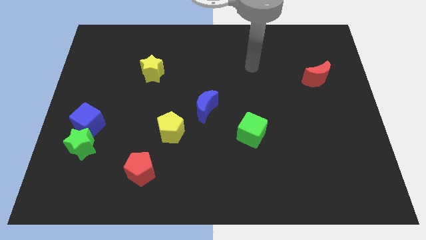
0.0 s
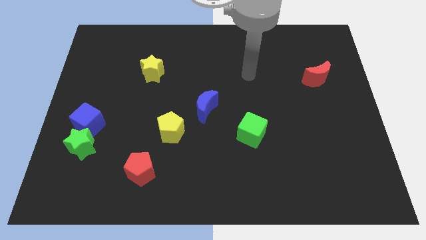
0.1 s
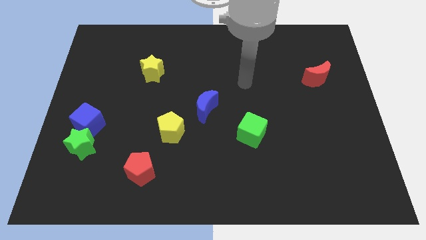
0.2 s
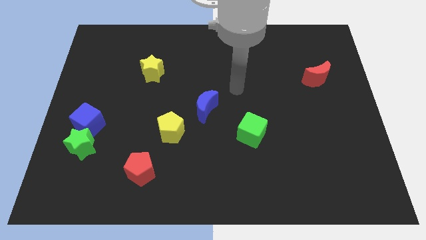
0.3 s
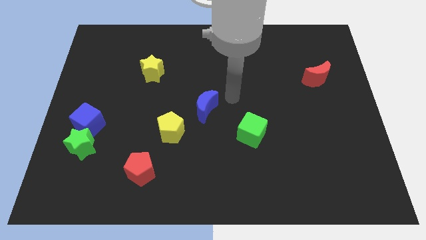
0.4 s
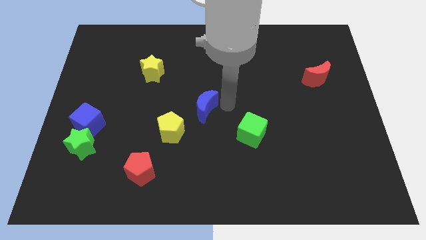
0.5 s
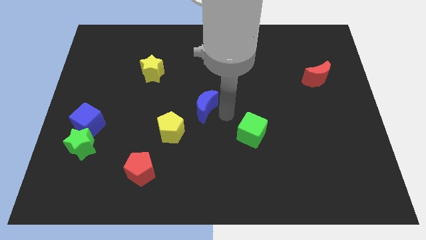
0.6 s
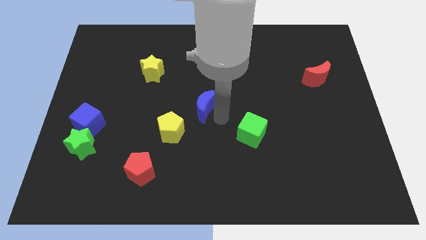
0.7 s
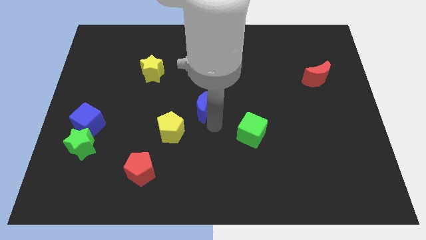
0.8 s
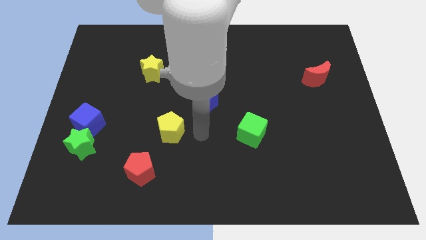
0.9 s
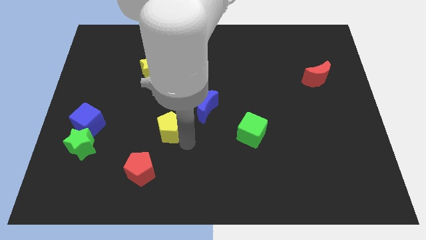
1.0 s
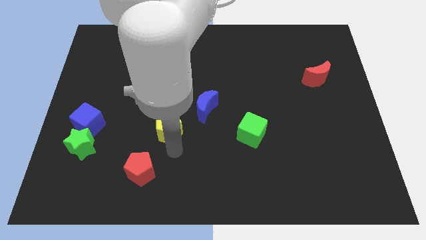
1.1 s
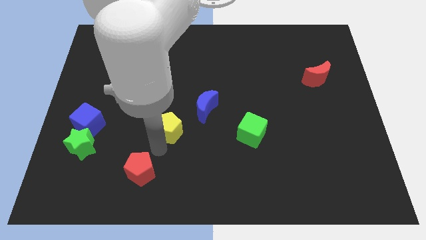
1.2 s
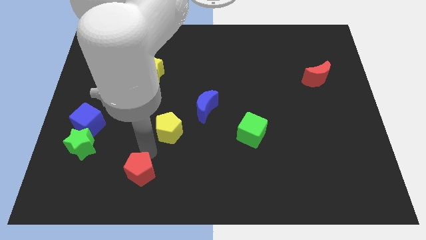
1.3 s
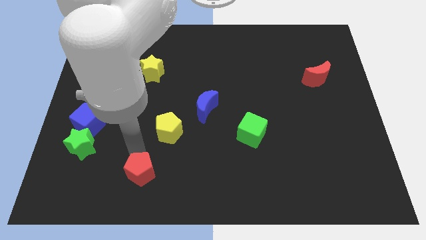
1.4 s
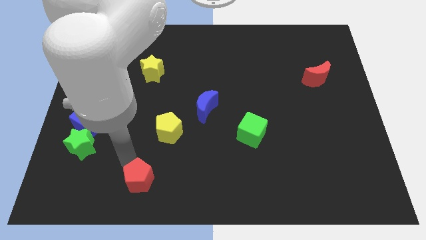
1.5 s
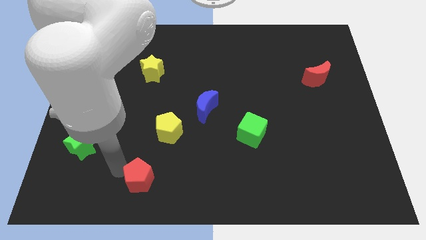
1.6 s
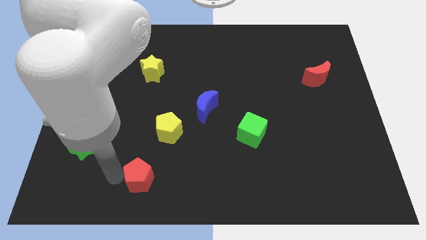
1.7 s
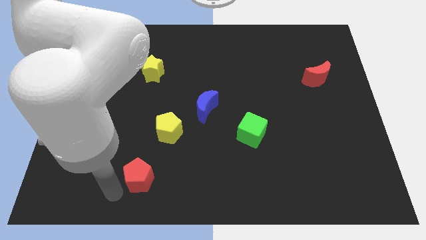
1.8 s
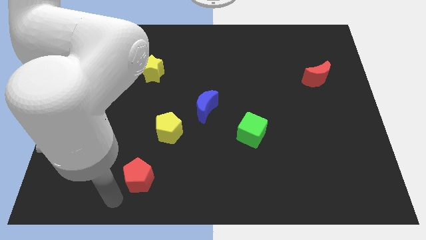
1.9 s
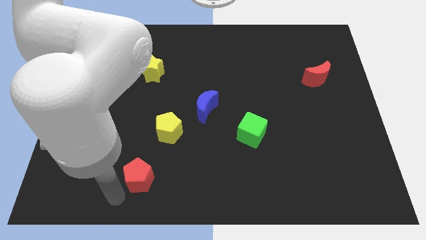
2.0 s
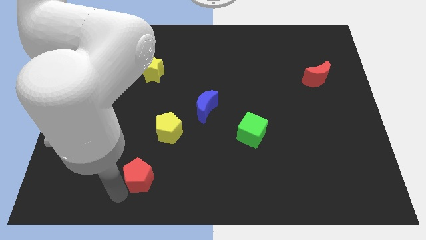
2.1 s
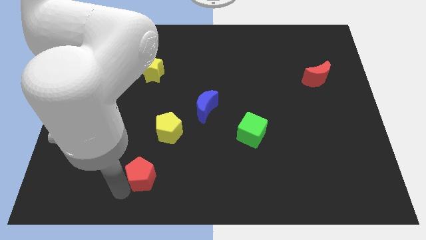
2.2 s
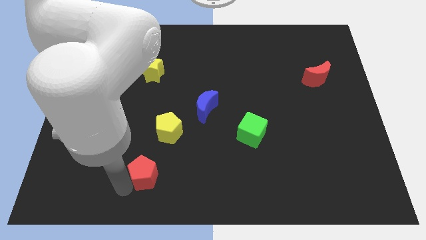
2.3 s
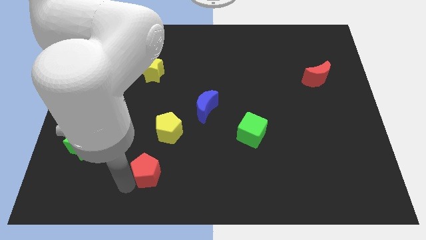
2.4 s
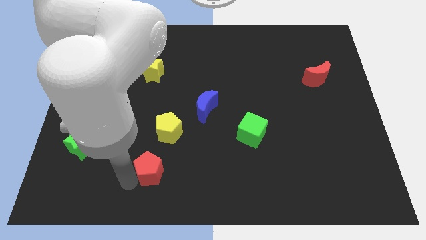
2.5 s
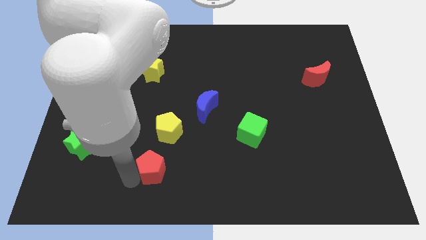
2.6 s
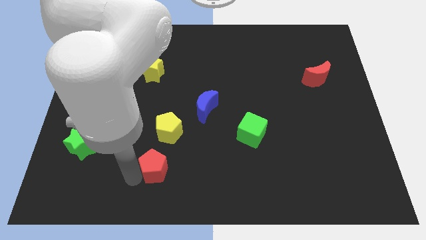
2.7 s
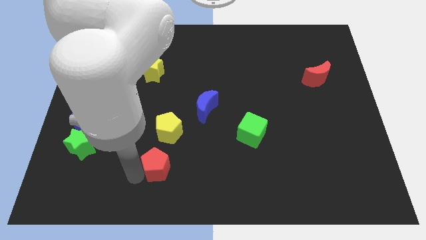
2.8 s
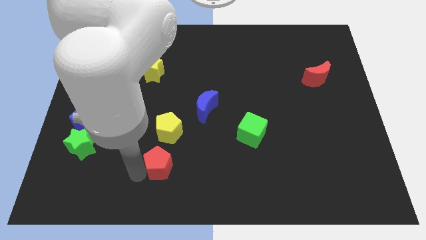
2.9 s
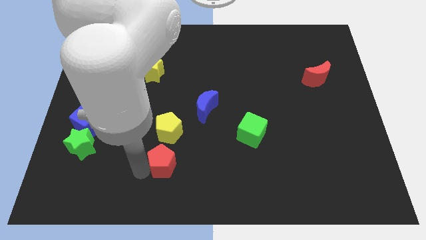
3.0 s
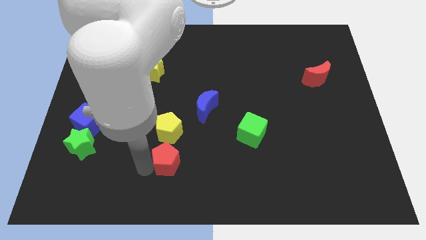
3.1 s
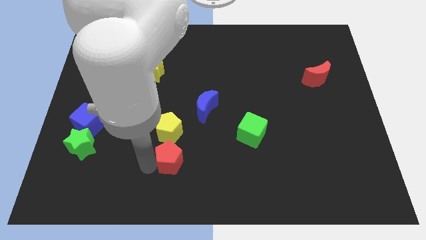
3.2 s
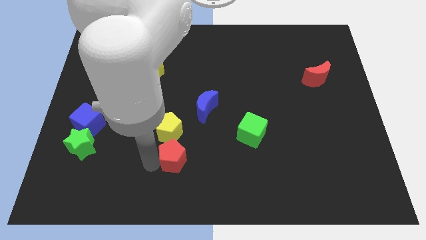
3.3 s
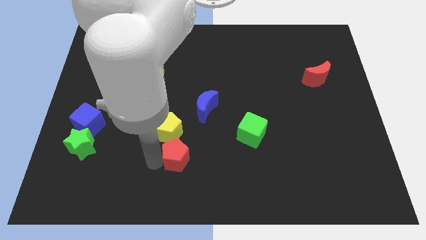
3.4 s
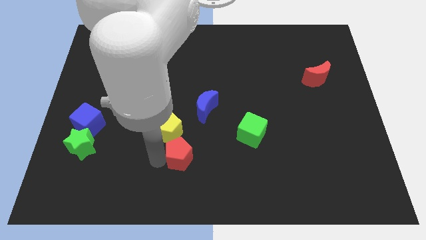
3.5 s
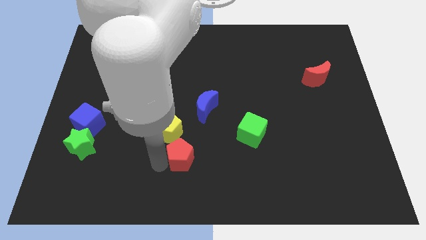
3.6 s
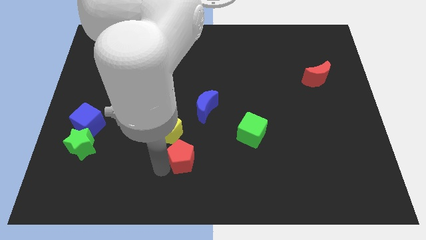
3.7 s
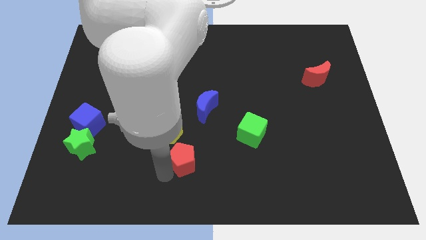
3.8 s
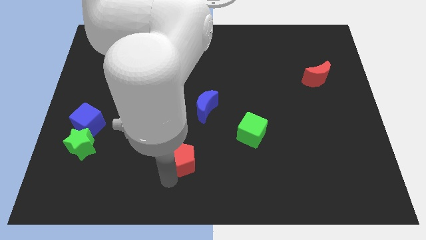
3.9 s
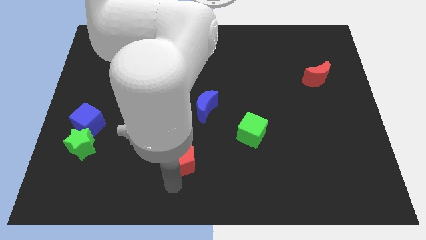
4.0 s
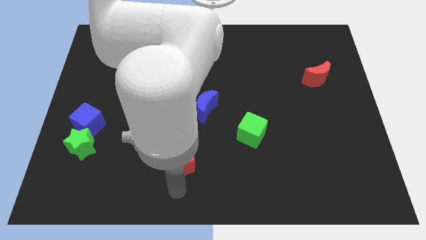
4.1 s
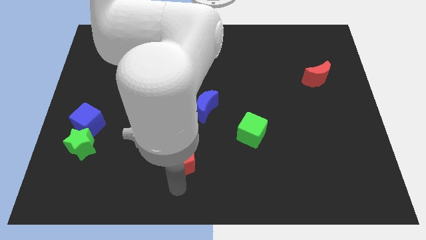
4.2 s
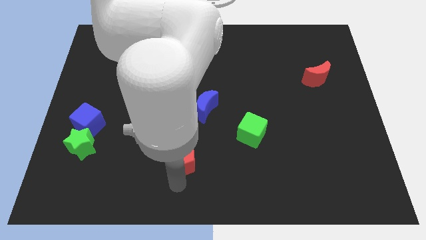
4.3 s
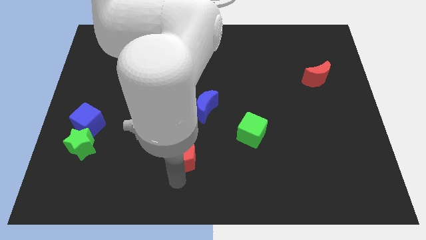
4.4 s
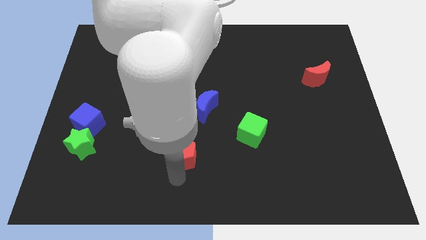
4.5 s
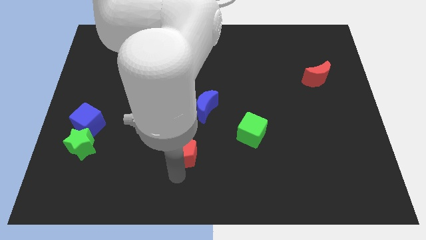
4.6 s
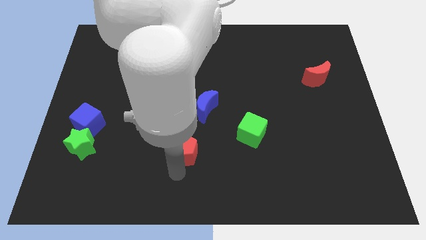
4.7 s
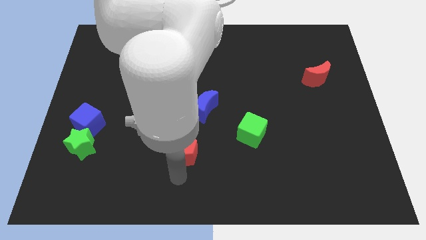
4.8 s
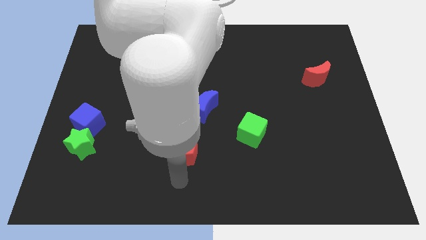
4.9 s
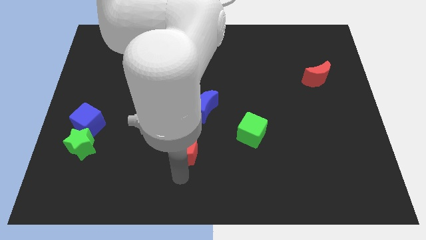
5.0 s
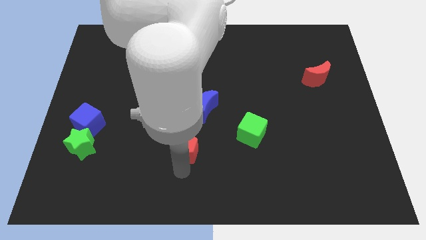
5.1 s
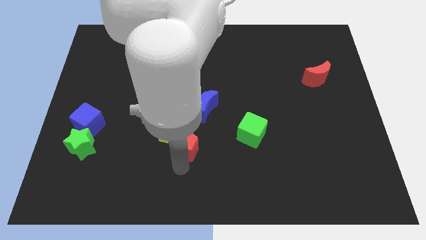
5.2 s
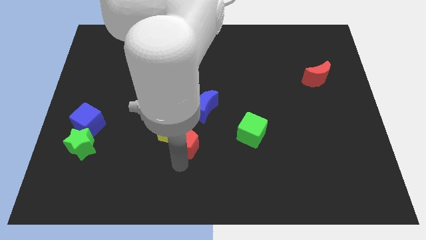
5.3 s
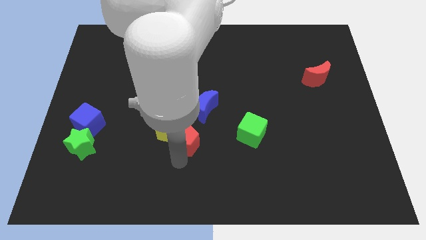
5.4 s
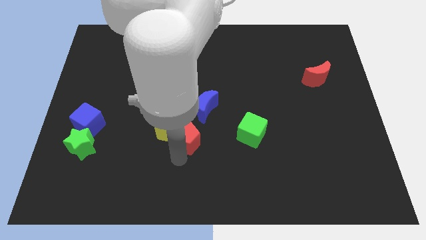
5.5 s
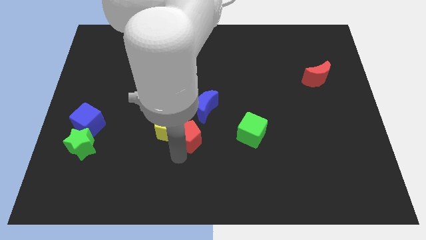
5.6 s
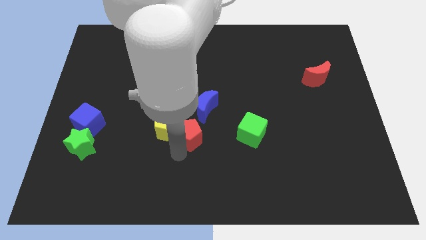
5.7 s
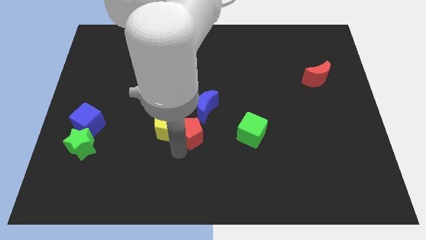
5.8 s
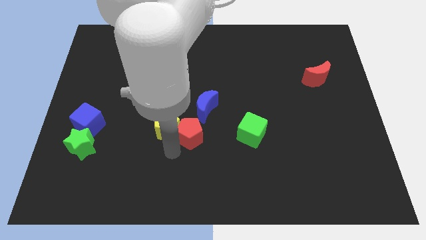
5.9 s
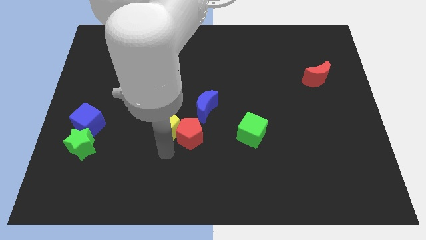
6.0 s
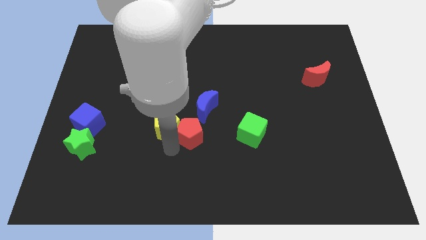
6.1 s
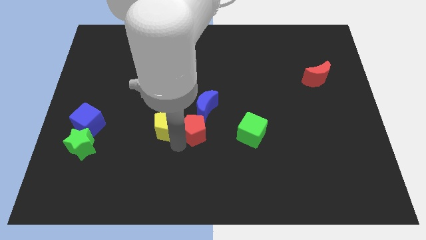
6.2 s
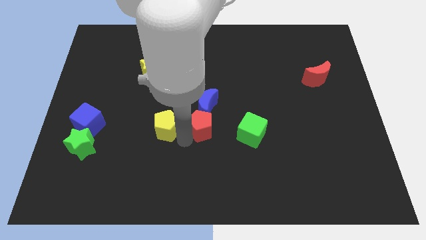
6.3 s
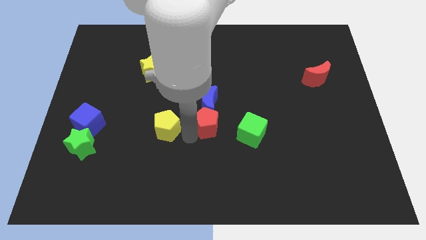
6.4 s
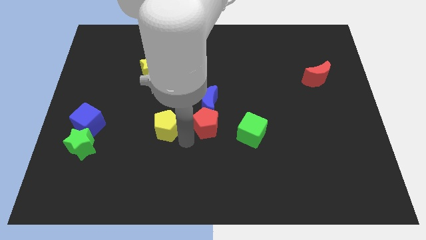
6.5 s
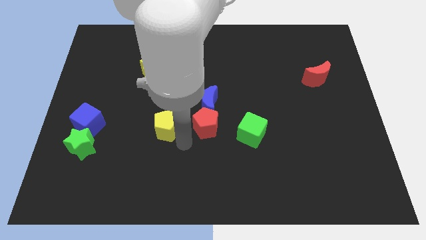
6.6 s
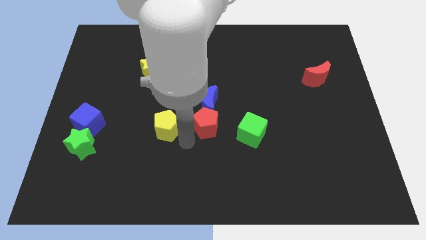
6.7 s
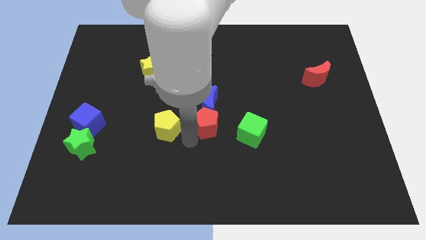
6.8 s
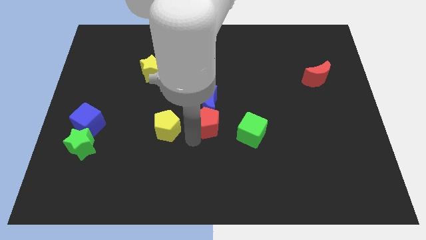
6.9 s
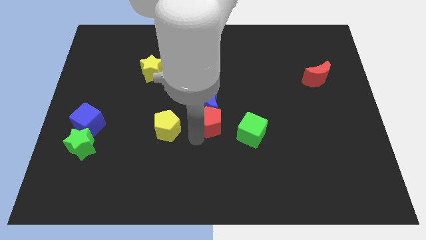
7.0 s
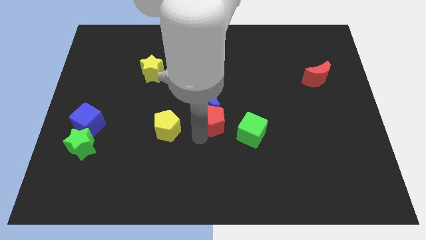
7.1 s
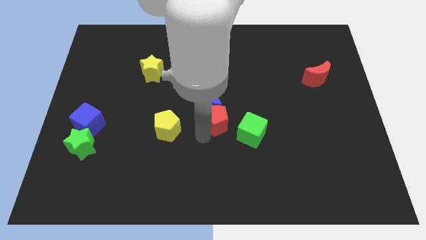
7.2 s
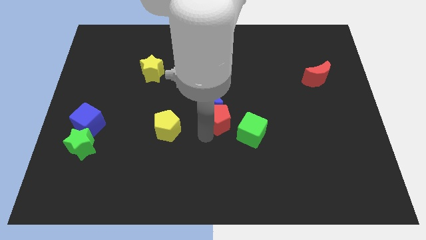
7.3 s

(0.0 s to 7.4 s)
push the red pentagon upwards and to the right diagonally

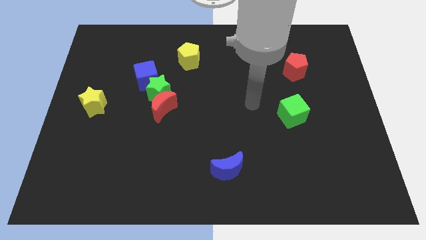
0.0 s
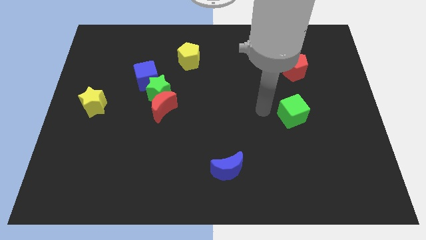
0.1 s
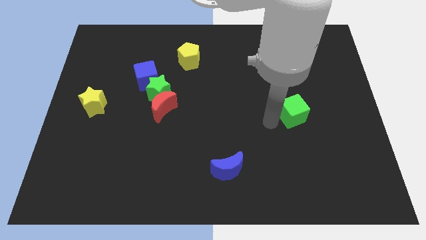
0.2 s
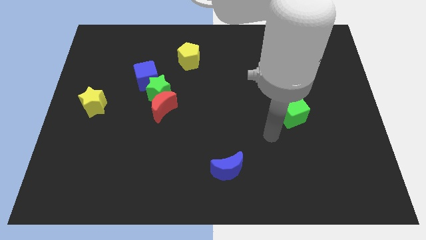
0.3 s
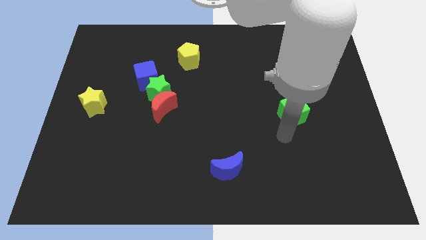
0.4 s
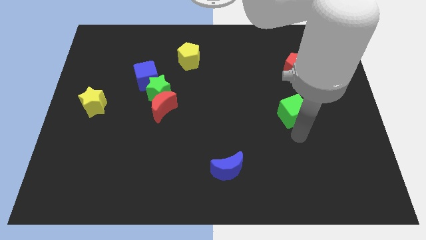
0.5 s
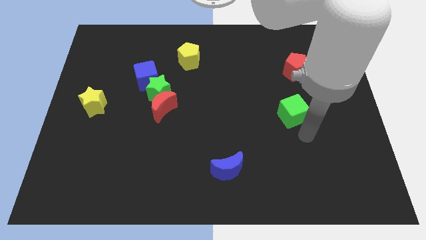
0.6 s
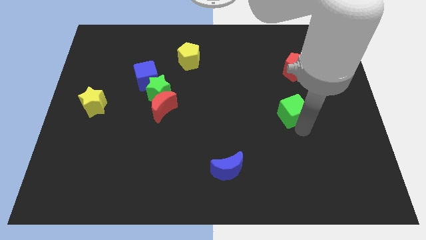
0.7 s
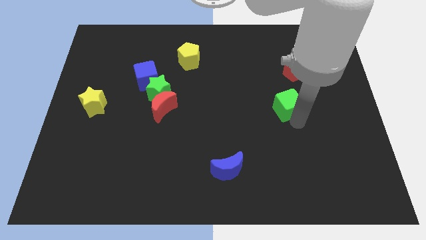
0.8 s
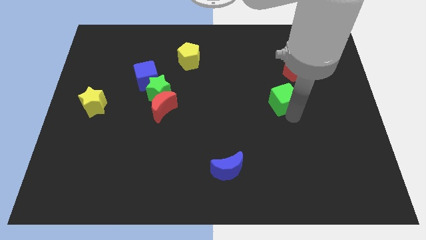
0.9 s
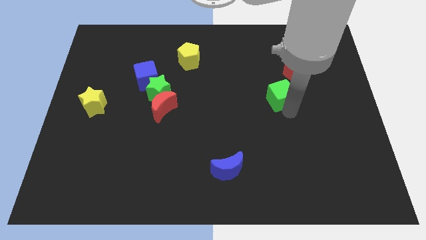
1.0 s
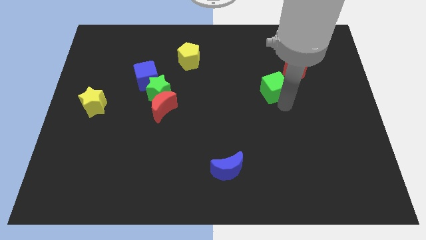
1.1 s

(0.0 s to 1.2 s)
push the green cube slightly upwards
